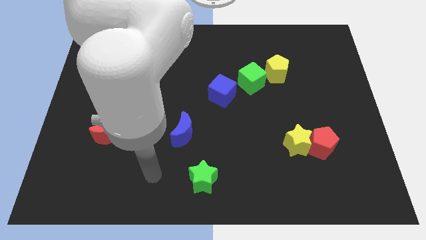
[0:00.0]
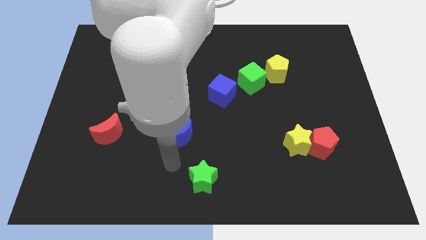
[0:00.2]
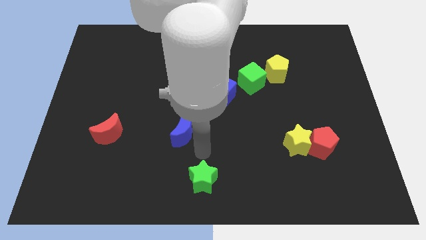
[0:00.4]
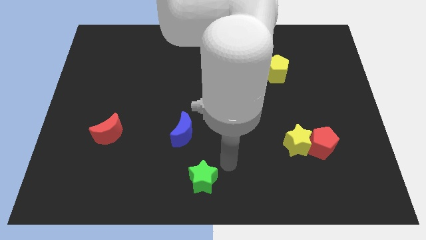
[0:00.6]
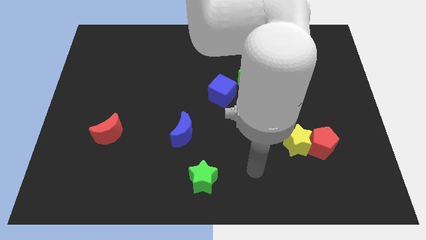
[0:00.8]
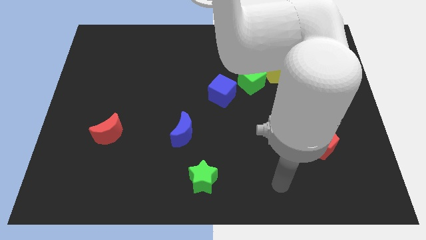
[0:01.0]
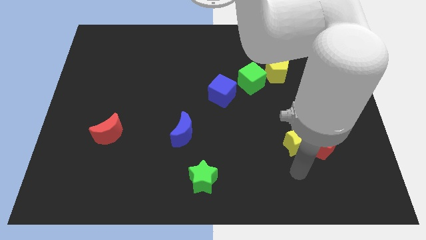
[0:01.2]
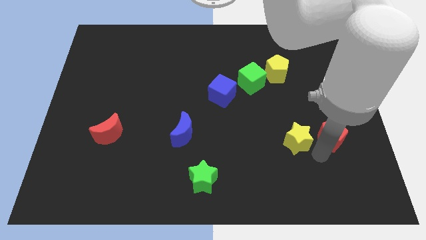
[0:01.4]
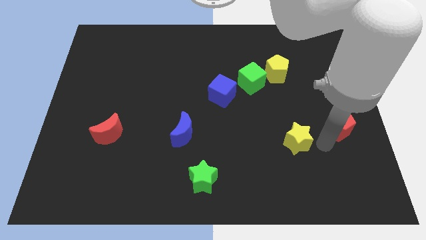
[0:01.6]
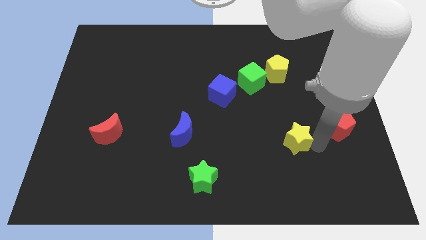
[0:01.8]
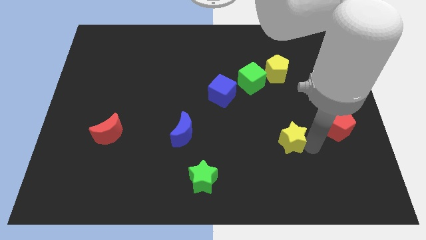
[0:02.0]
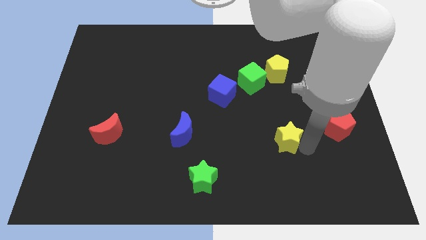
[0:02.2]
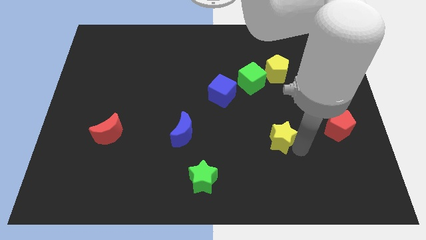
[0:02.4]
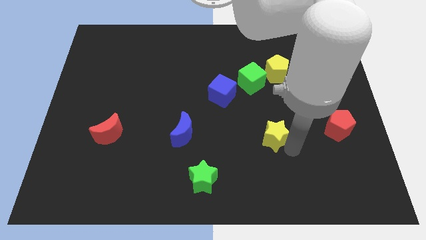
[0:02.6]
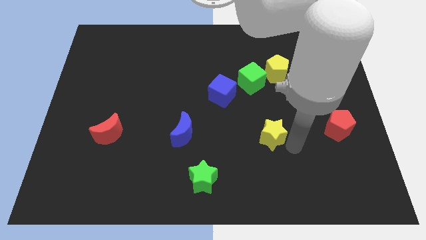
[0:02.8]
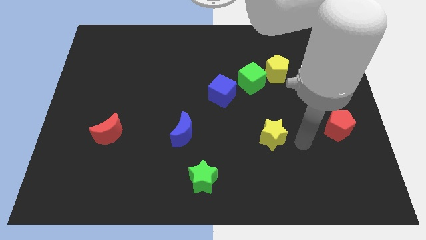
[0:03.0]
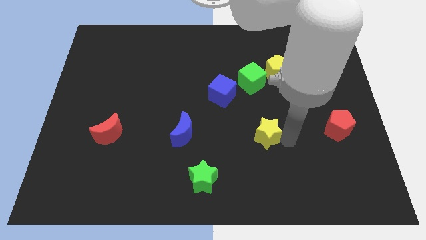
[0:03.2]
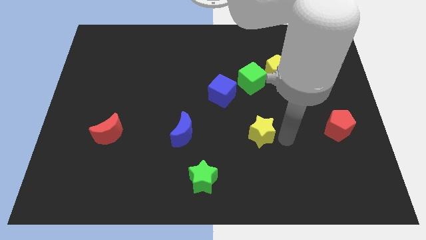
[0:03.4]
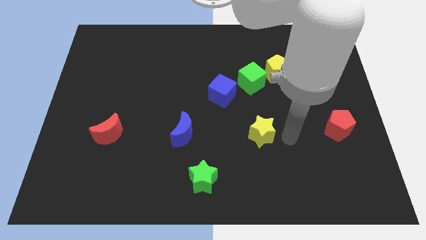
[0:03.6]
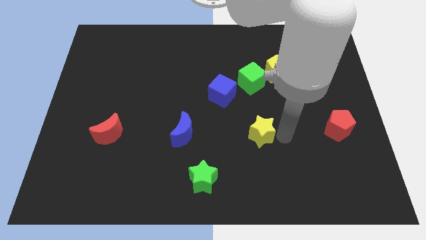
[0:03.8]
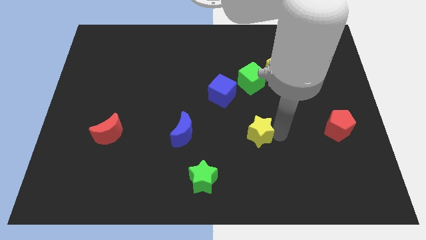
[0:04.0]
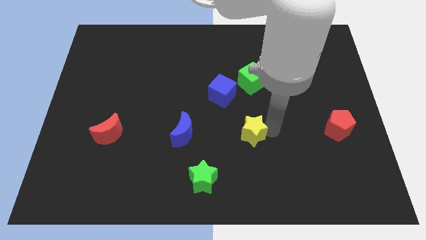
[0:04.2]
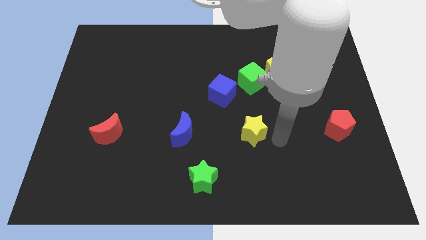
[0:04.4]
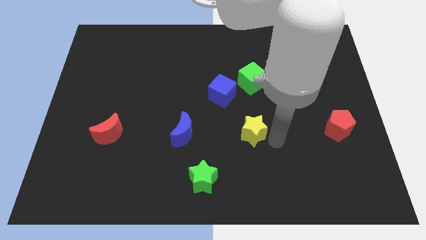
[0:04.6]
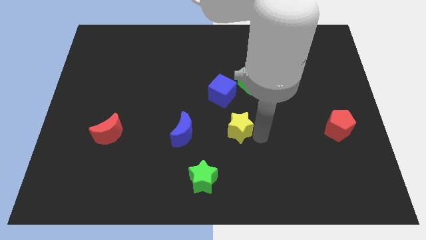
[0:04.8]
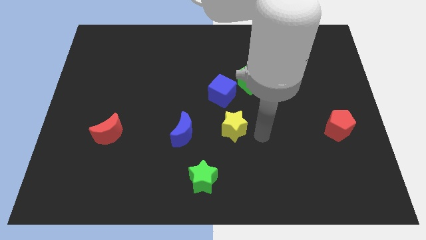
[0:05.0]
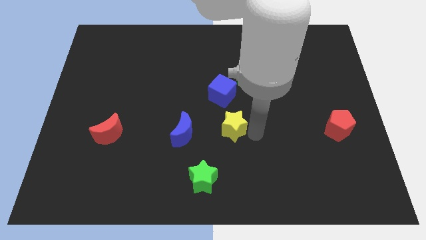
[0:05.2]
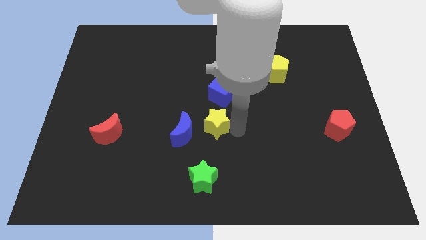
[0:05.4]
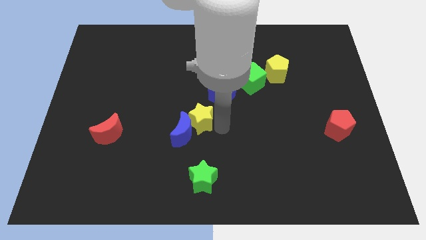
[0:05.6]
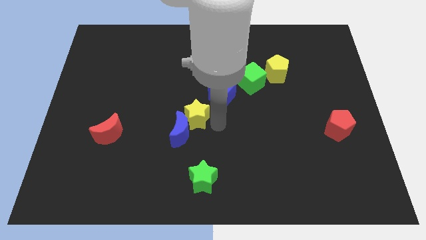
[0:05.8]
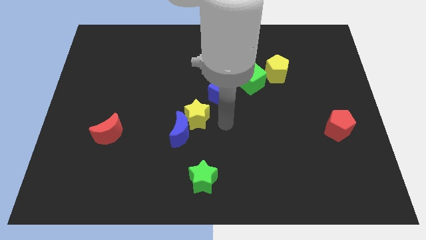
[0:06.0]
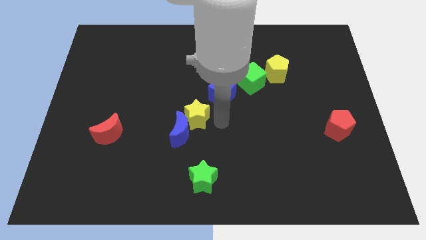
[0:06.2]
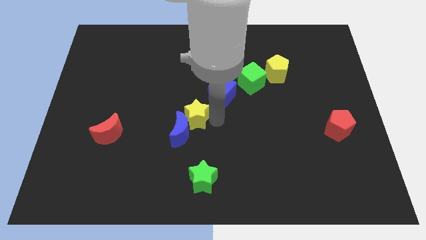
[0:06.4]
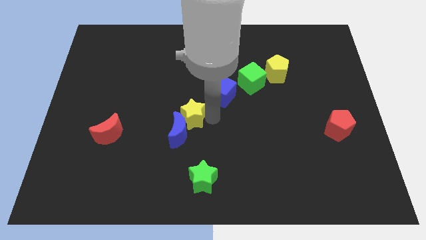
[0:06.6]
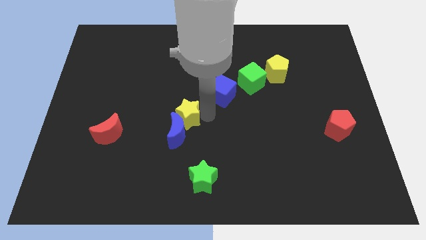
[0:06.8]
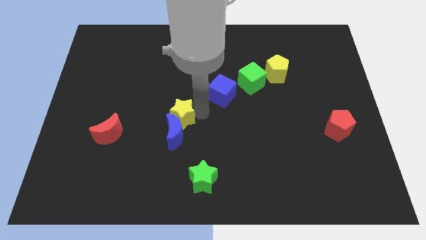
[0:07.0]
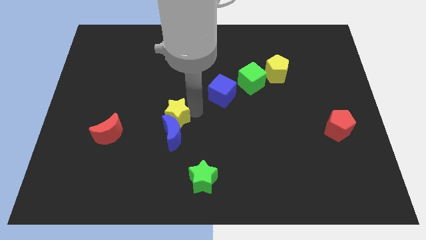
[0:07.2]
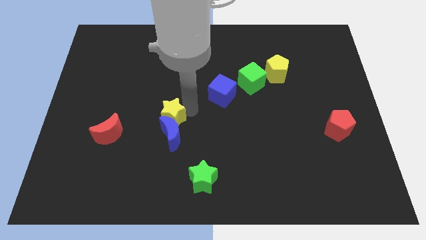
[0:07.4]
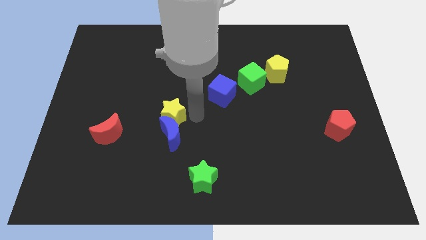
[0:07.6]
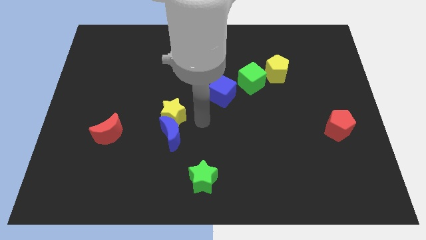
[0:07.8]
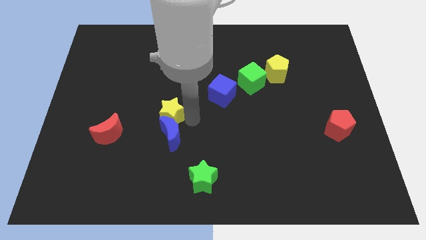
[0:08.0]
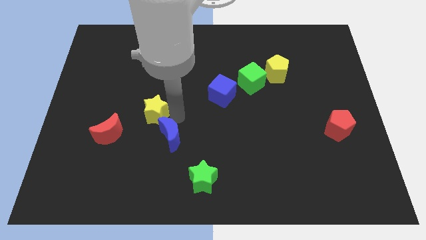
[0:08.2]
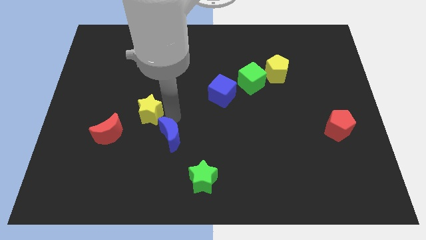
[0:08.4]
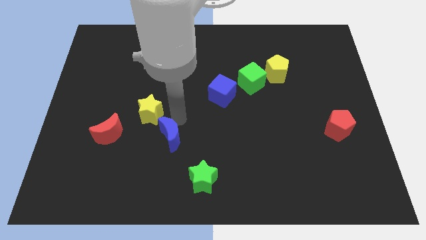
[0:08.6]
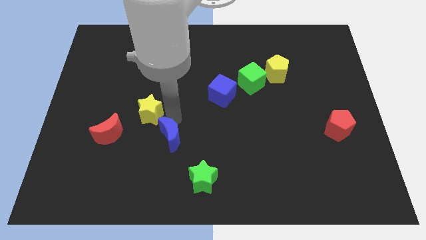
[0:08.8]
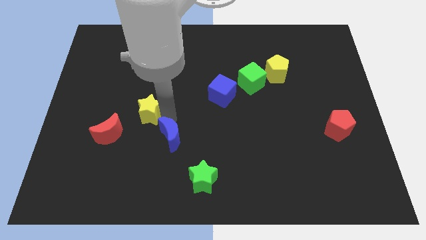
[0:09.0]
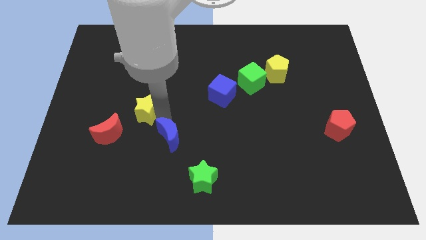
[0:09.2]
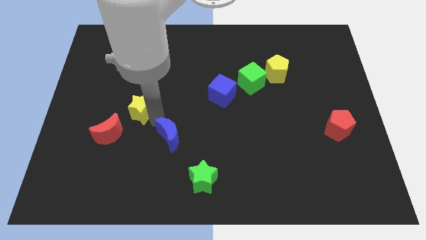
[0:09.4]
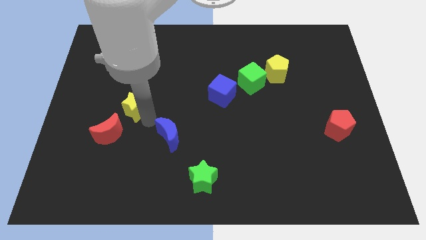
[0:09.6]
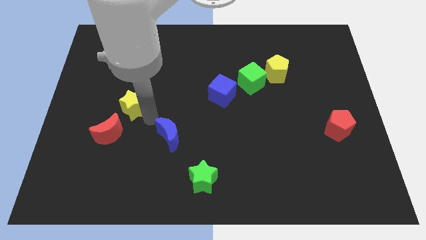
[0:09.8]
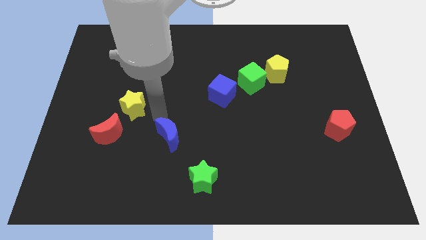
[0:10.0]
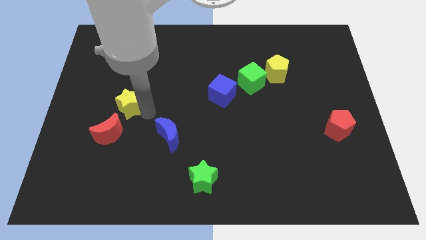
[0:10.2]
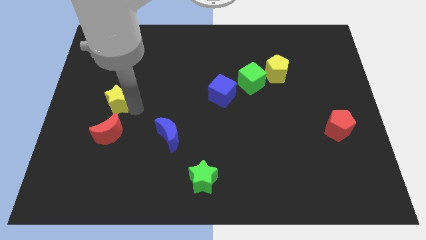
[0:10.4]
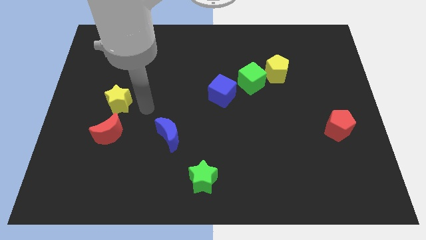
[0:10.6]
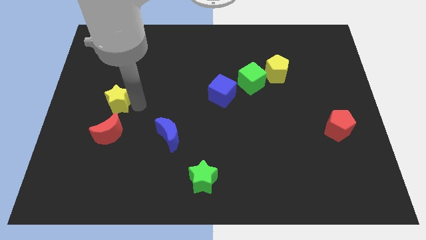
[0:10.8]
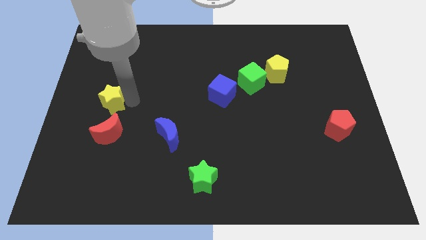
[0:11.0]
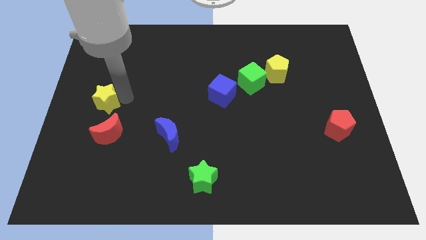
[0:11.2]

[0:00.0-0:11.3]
move the yellow star to the left side

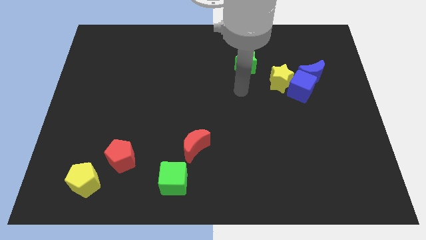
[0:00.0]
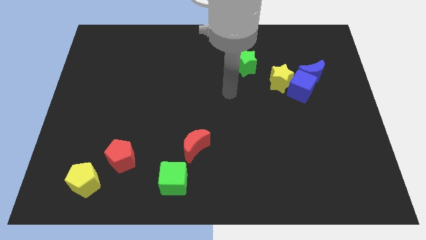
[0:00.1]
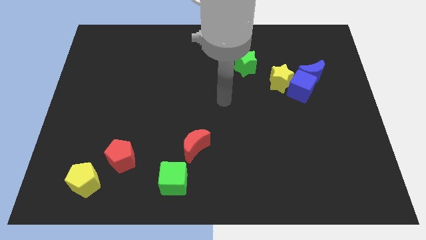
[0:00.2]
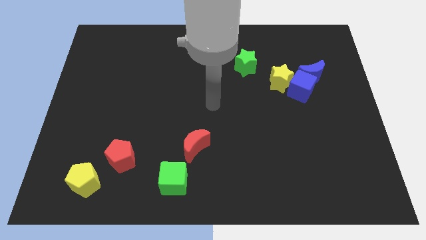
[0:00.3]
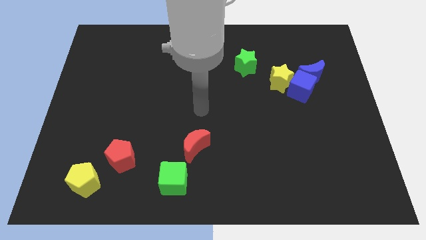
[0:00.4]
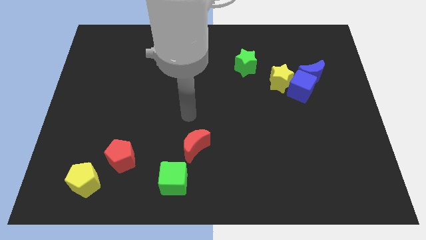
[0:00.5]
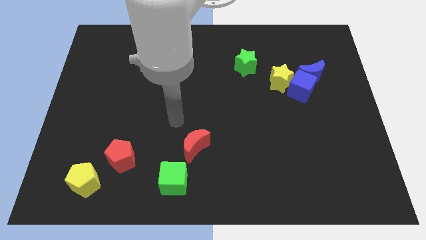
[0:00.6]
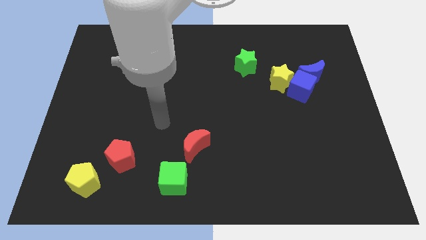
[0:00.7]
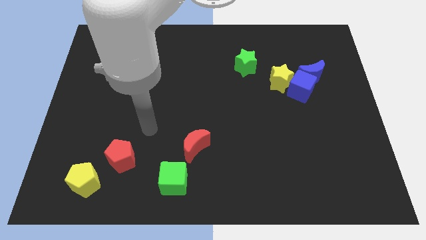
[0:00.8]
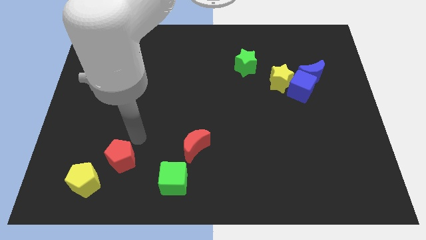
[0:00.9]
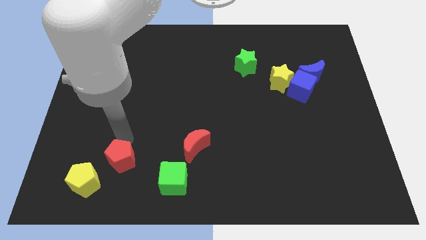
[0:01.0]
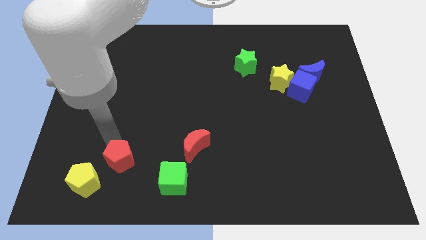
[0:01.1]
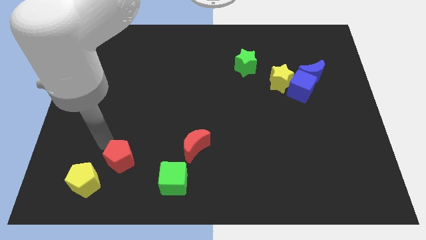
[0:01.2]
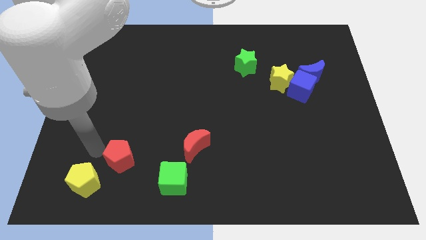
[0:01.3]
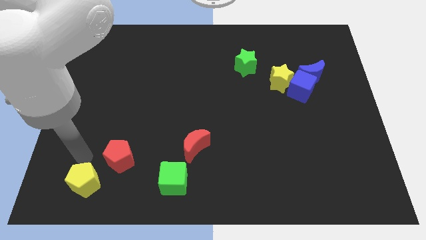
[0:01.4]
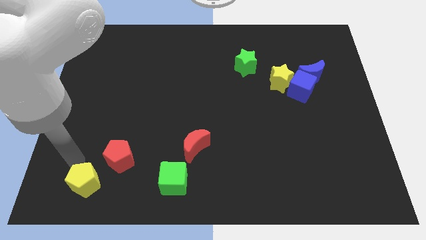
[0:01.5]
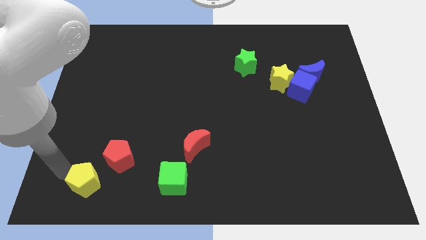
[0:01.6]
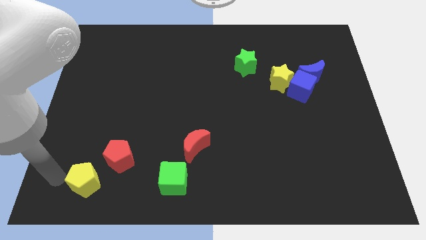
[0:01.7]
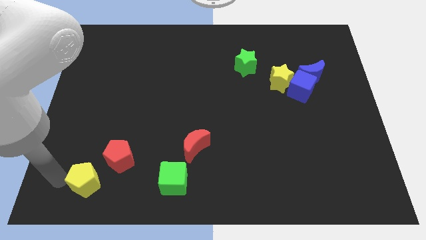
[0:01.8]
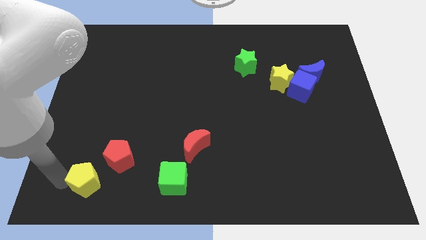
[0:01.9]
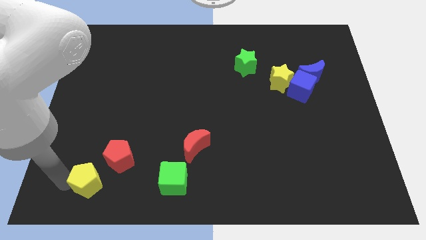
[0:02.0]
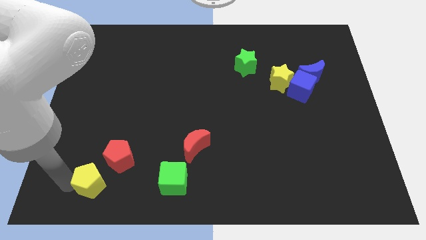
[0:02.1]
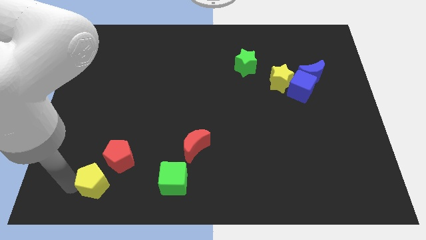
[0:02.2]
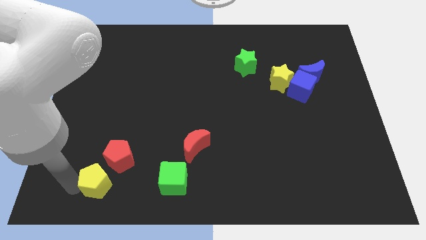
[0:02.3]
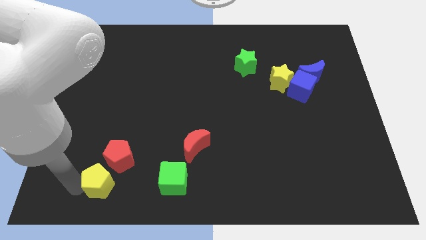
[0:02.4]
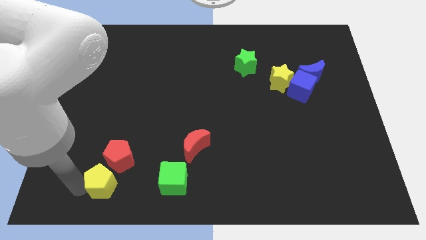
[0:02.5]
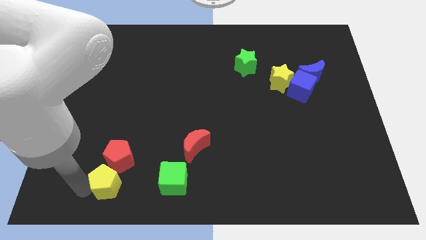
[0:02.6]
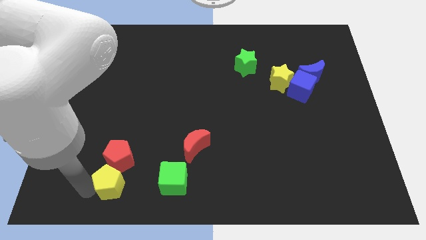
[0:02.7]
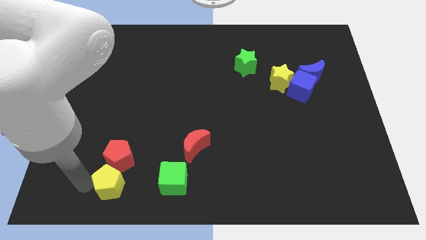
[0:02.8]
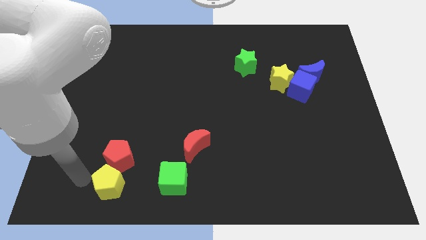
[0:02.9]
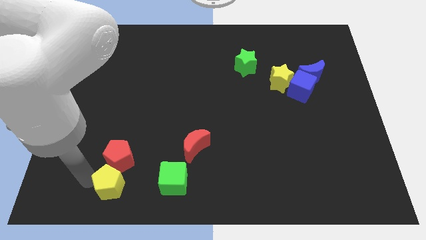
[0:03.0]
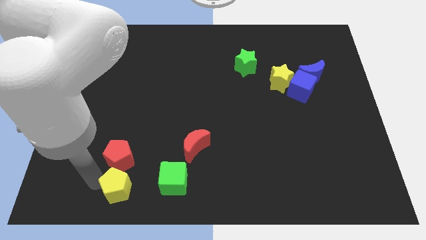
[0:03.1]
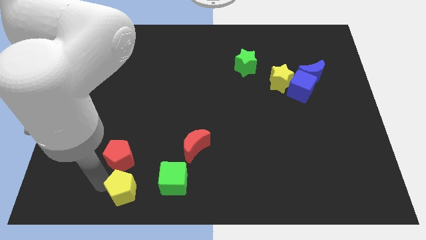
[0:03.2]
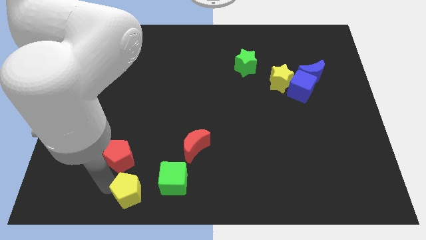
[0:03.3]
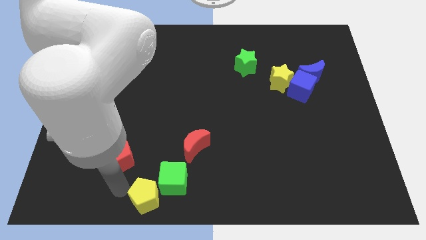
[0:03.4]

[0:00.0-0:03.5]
push the yellow pentagon to the bottom side
